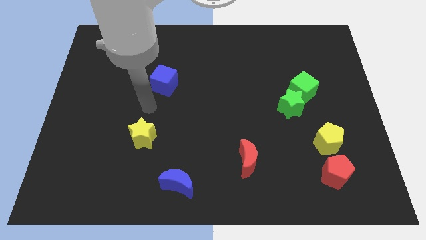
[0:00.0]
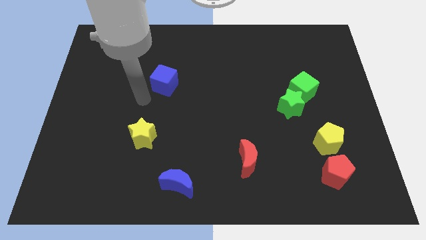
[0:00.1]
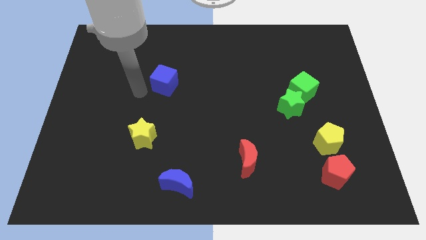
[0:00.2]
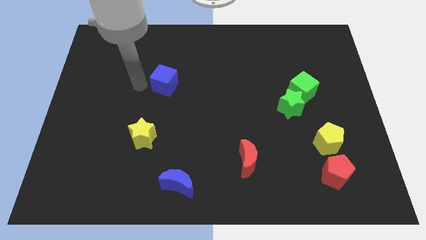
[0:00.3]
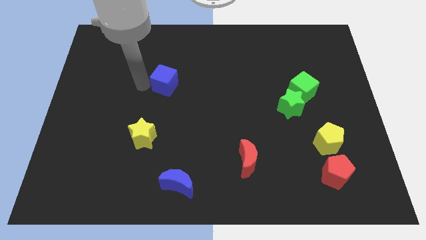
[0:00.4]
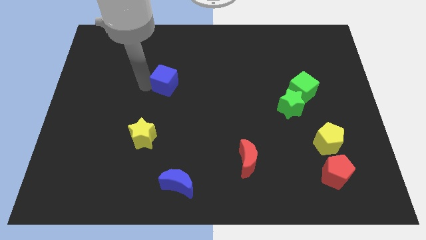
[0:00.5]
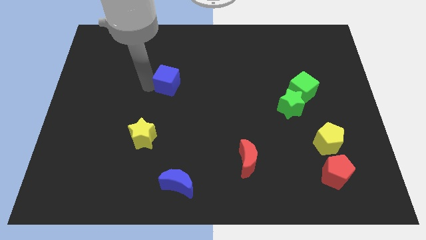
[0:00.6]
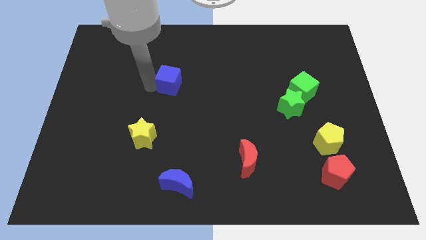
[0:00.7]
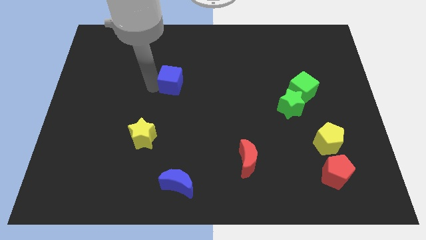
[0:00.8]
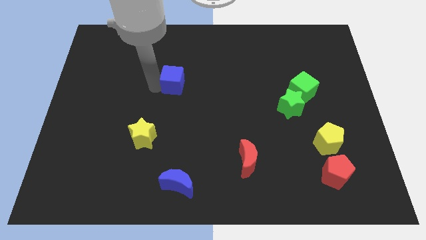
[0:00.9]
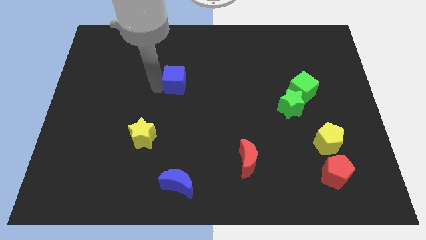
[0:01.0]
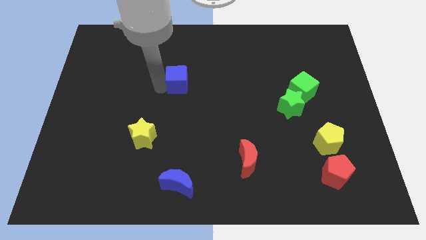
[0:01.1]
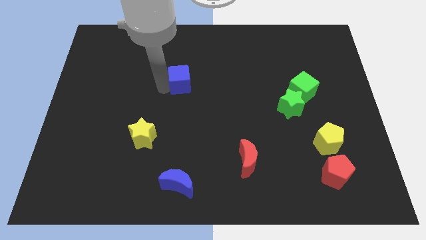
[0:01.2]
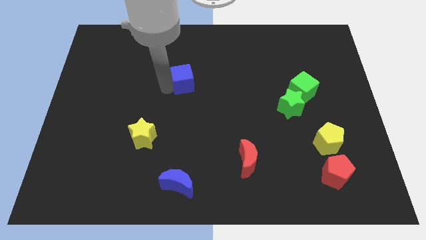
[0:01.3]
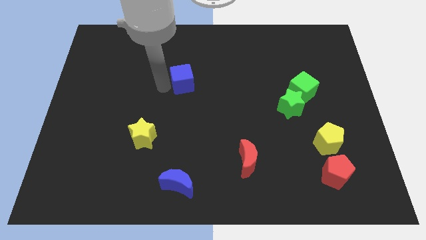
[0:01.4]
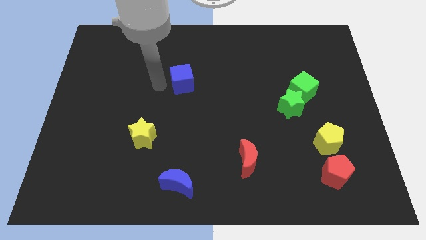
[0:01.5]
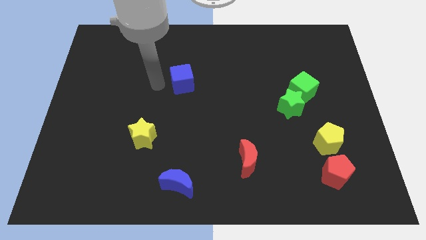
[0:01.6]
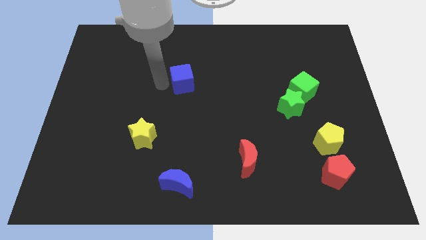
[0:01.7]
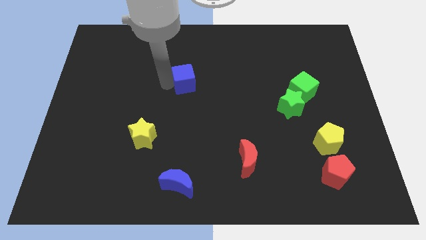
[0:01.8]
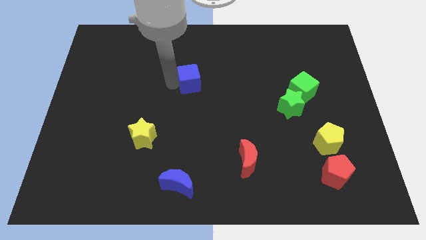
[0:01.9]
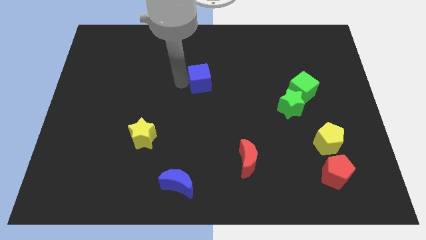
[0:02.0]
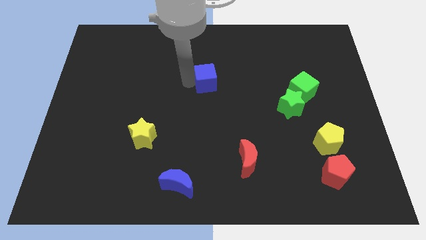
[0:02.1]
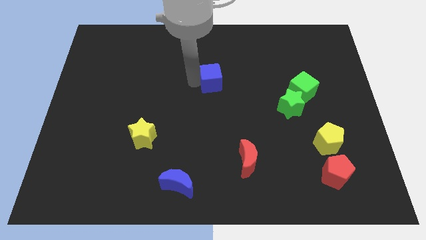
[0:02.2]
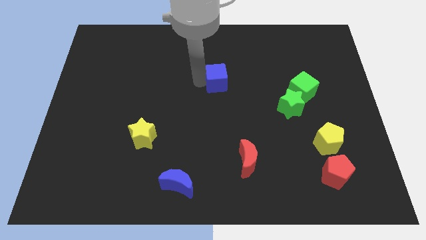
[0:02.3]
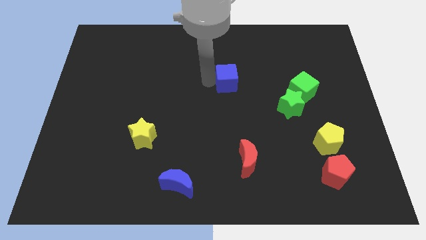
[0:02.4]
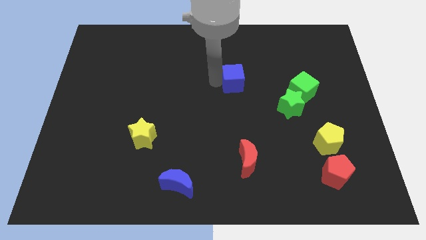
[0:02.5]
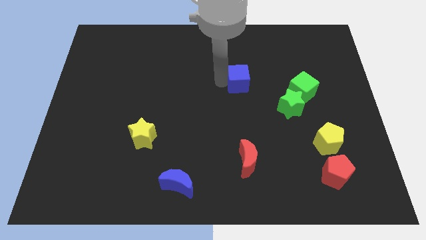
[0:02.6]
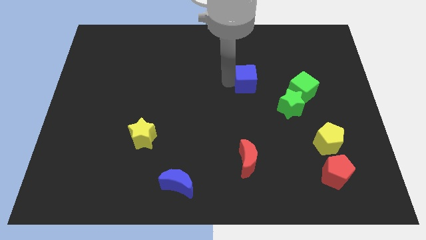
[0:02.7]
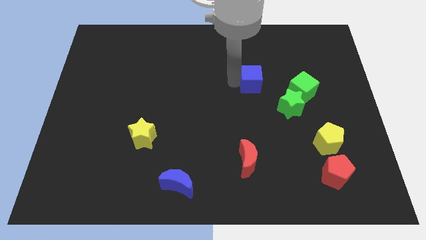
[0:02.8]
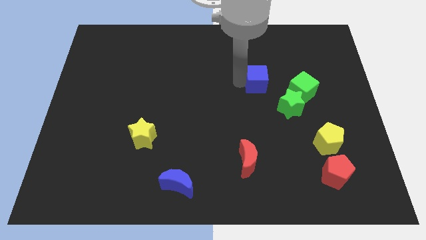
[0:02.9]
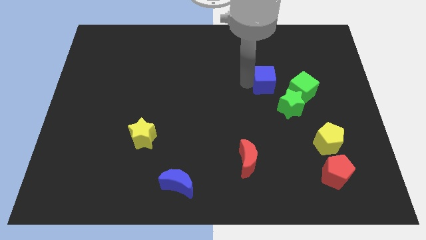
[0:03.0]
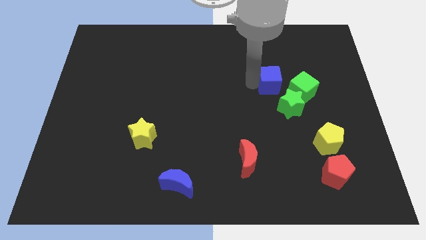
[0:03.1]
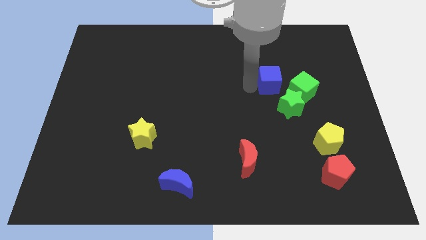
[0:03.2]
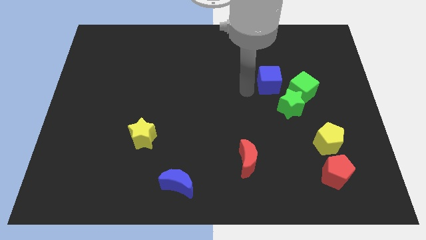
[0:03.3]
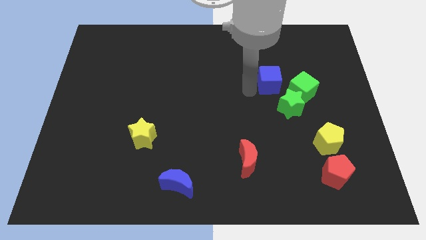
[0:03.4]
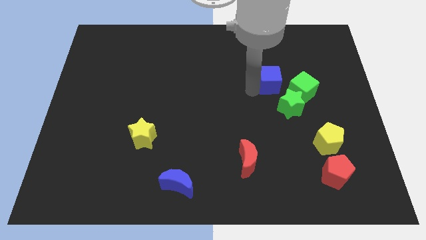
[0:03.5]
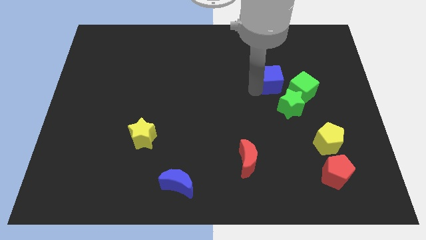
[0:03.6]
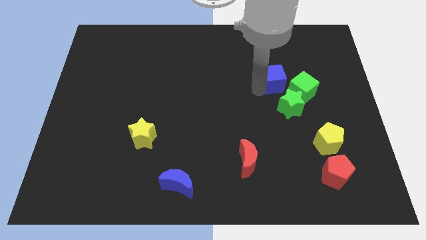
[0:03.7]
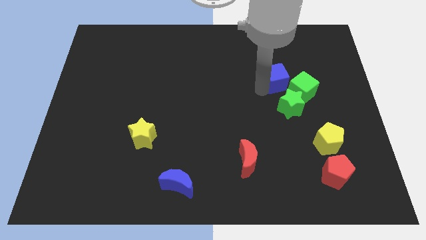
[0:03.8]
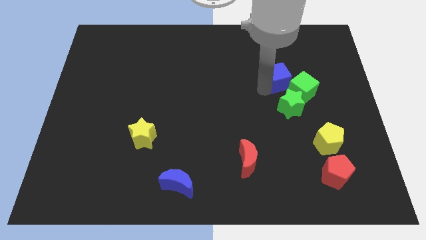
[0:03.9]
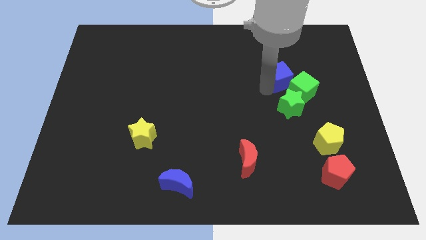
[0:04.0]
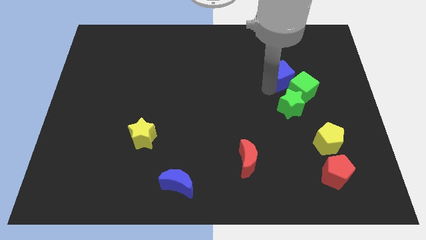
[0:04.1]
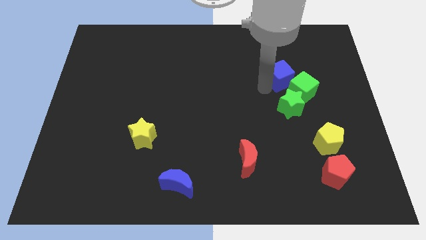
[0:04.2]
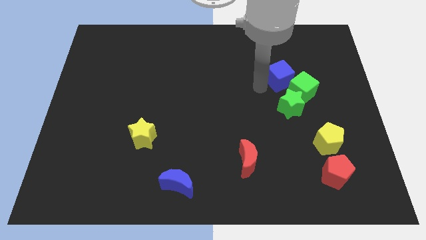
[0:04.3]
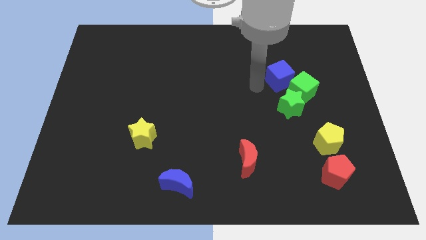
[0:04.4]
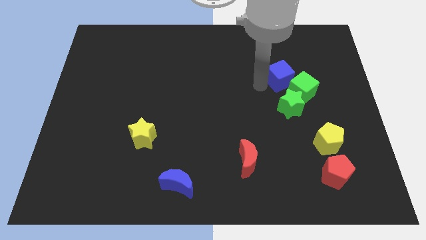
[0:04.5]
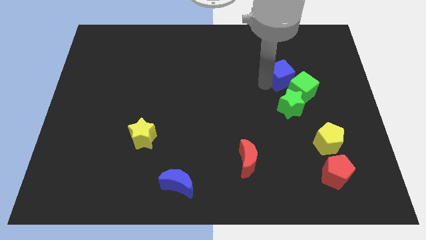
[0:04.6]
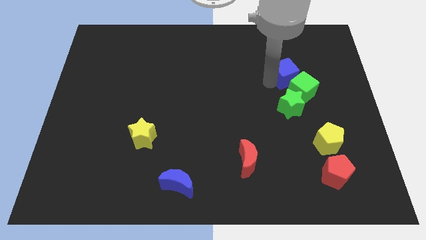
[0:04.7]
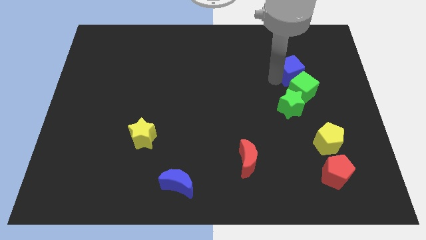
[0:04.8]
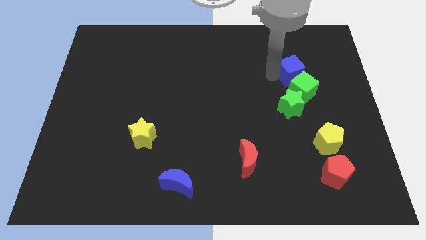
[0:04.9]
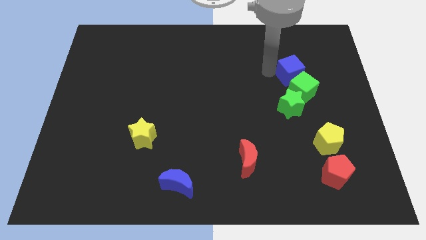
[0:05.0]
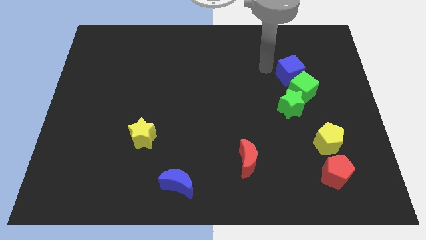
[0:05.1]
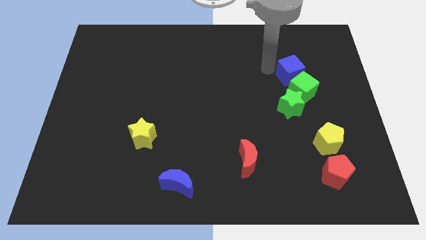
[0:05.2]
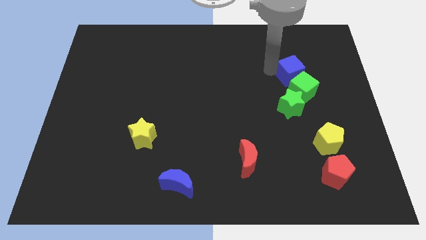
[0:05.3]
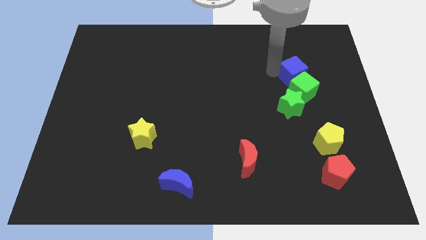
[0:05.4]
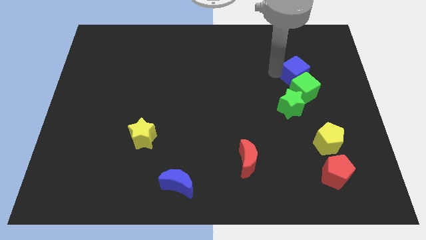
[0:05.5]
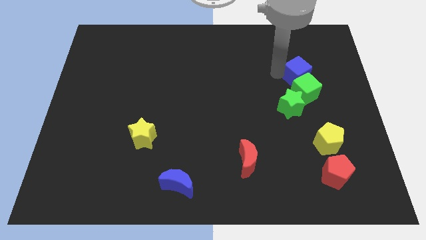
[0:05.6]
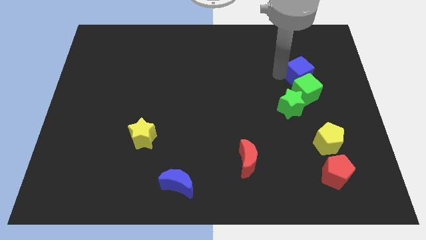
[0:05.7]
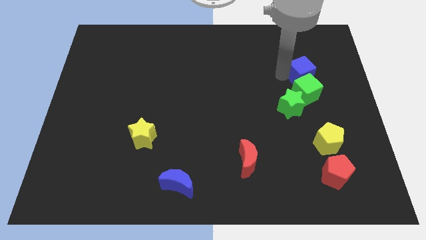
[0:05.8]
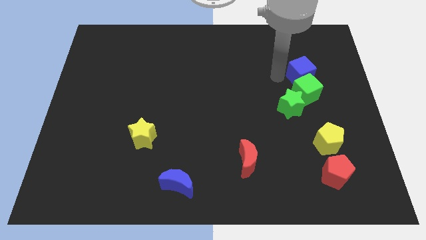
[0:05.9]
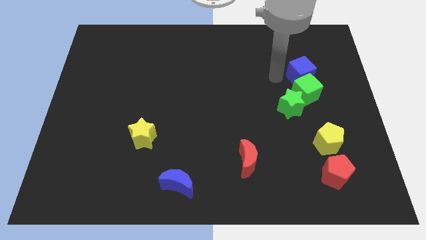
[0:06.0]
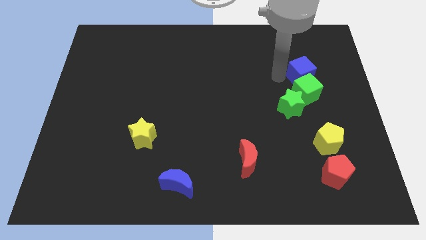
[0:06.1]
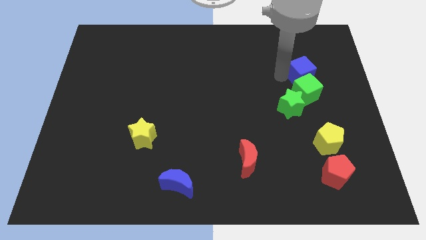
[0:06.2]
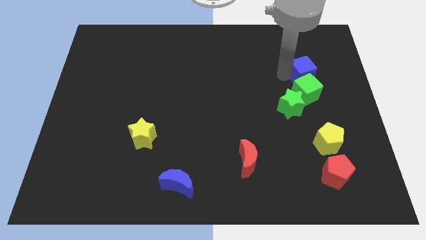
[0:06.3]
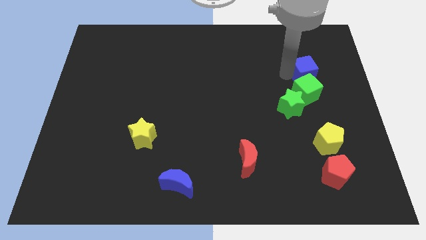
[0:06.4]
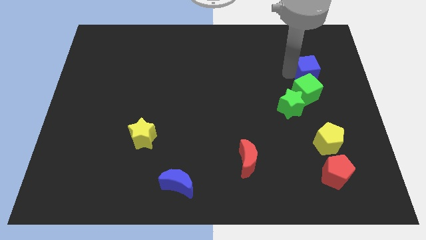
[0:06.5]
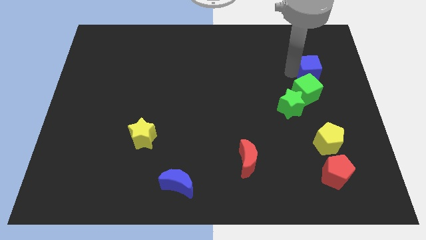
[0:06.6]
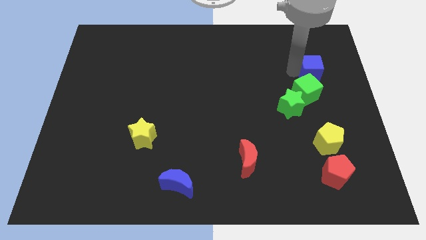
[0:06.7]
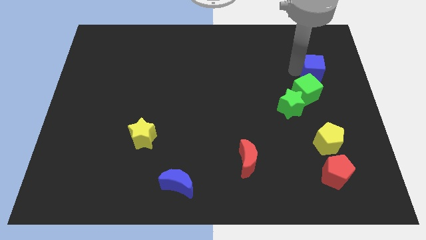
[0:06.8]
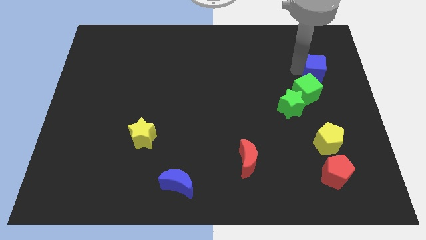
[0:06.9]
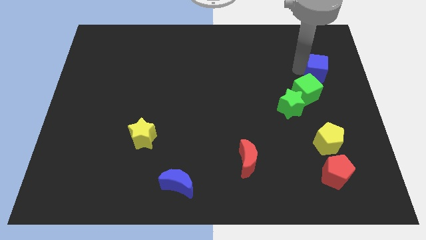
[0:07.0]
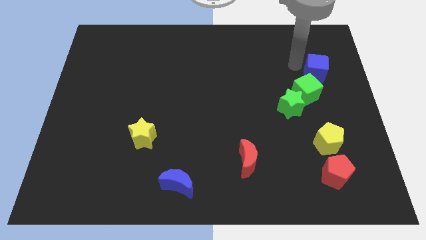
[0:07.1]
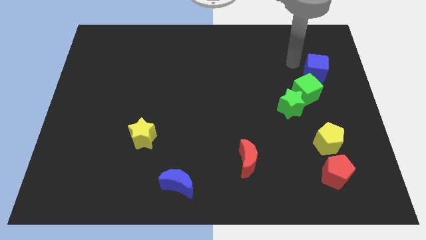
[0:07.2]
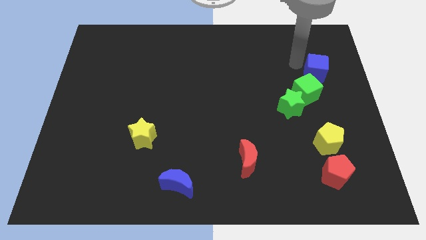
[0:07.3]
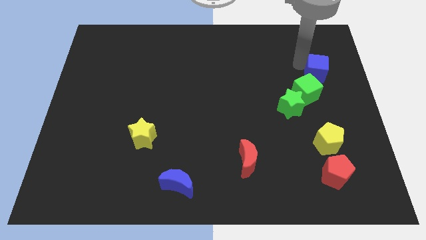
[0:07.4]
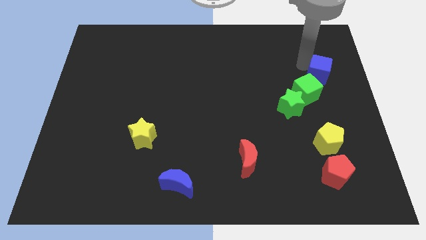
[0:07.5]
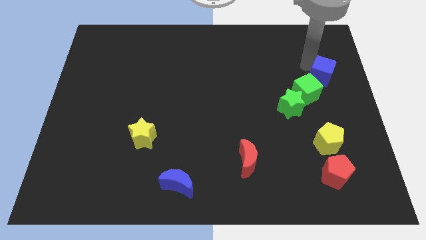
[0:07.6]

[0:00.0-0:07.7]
slide the blue cube to the right side of the board
